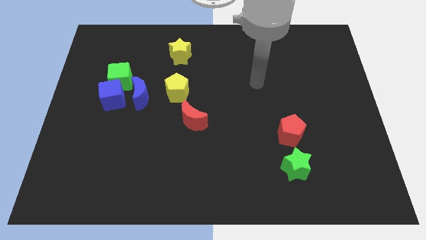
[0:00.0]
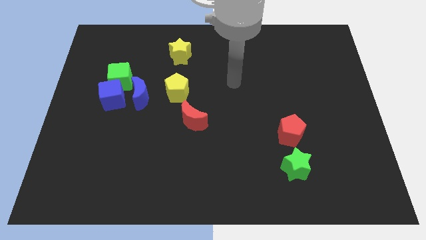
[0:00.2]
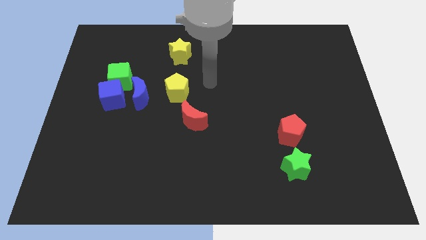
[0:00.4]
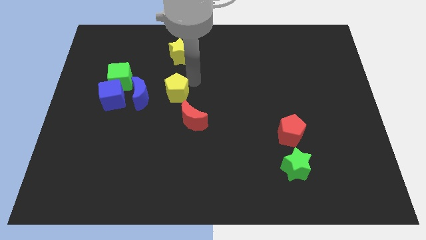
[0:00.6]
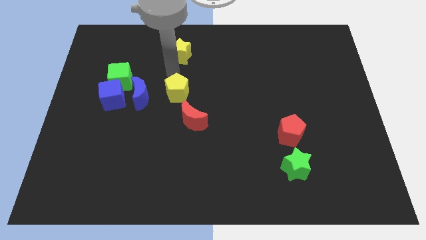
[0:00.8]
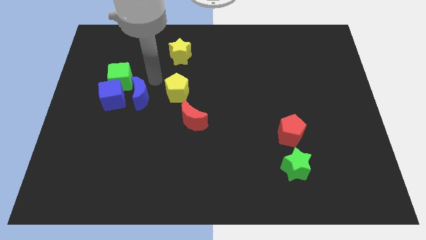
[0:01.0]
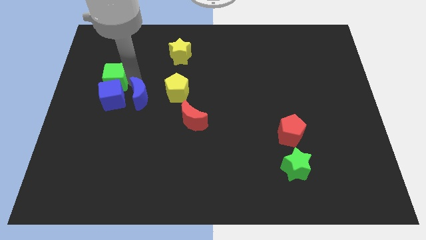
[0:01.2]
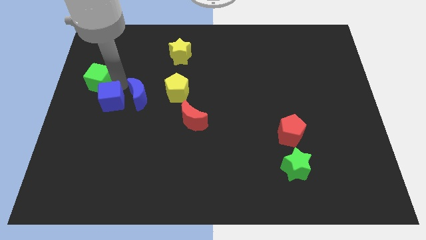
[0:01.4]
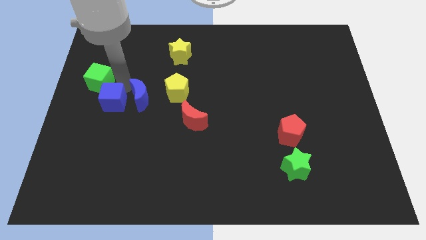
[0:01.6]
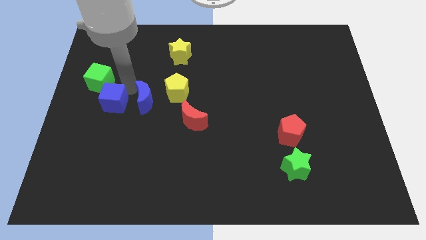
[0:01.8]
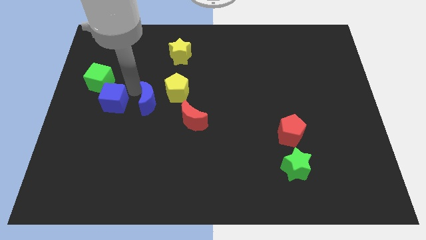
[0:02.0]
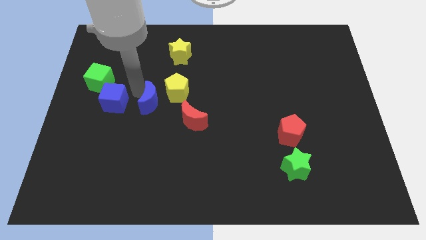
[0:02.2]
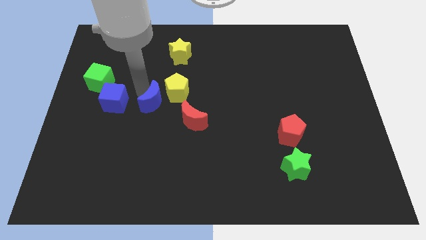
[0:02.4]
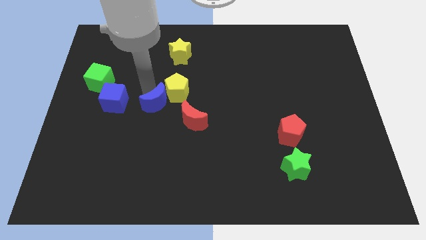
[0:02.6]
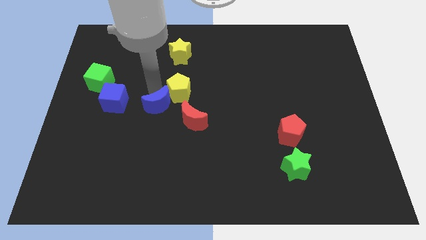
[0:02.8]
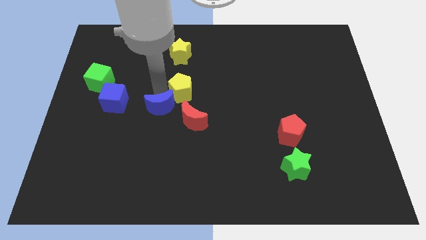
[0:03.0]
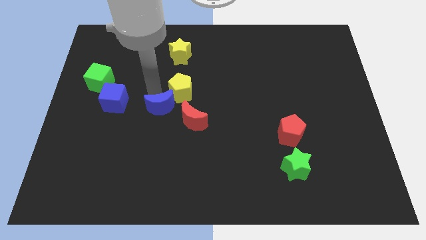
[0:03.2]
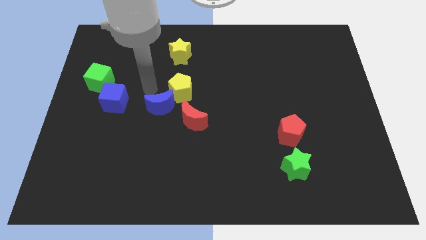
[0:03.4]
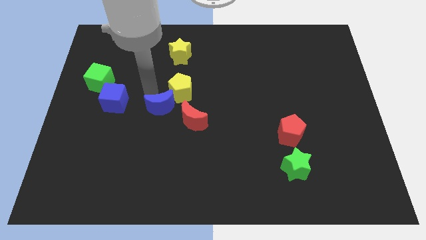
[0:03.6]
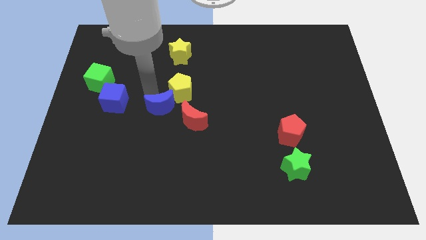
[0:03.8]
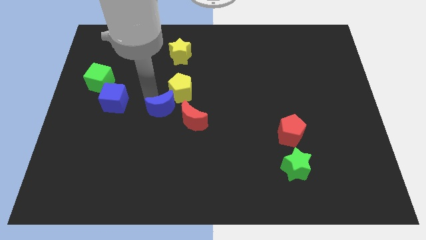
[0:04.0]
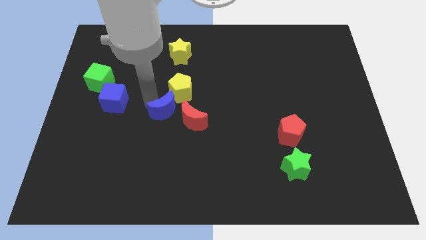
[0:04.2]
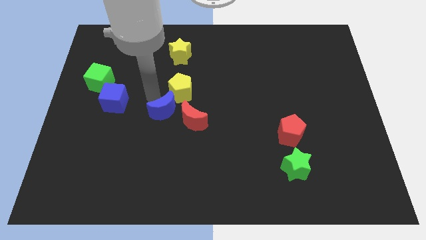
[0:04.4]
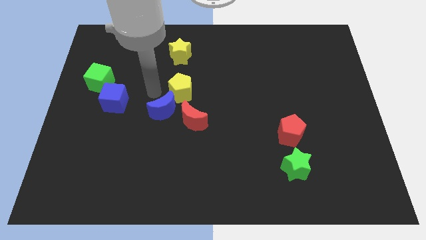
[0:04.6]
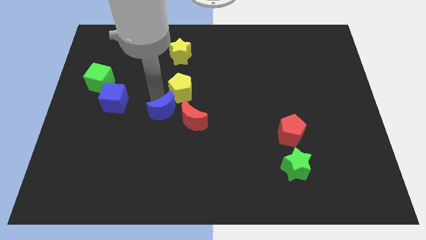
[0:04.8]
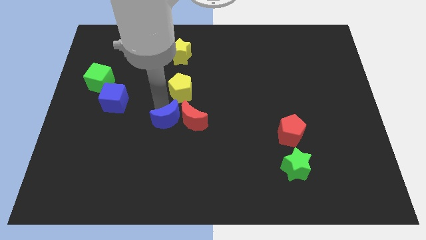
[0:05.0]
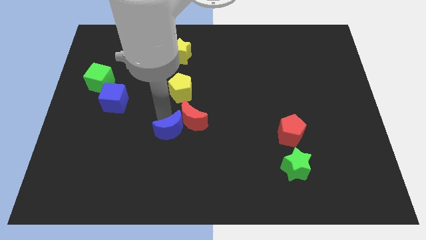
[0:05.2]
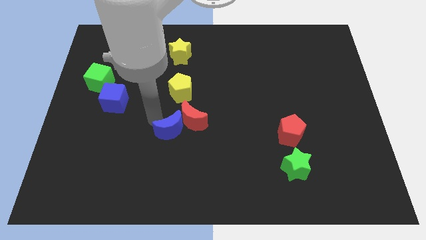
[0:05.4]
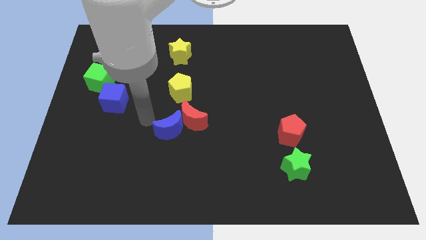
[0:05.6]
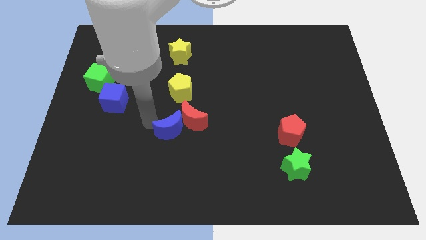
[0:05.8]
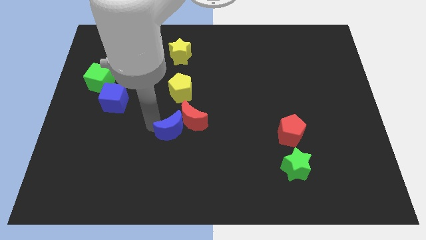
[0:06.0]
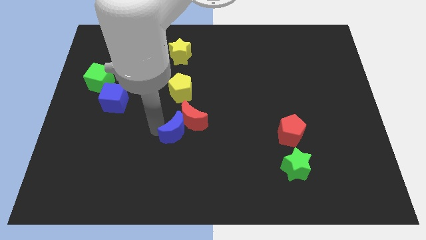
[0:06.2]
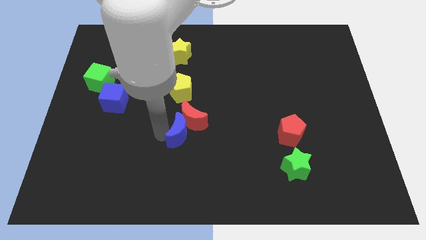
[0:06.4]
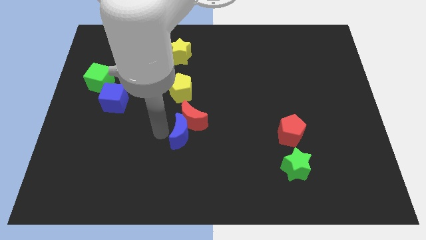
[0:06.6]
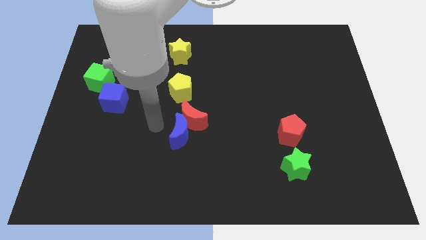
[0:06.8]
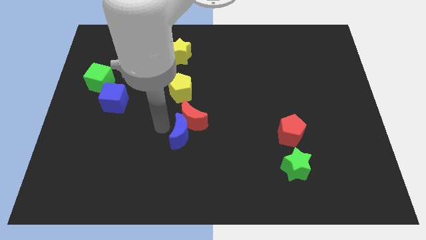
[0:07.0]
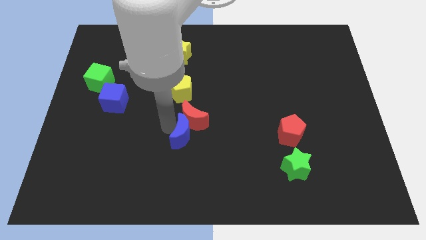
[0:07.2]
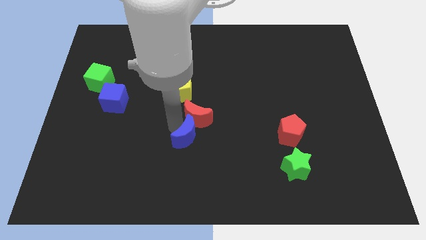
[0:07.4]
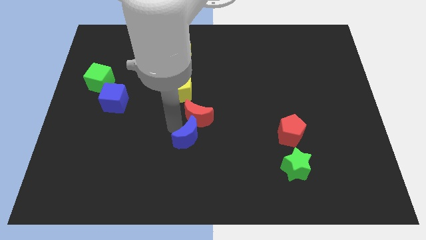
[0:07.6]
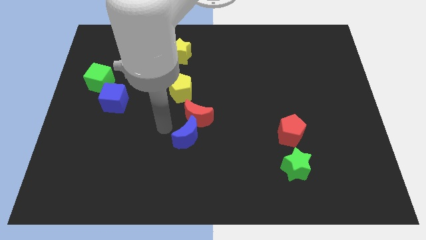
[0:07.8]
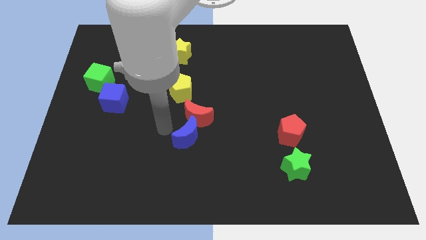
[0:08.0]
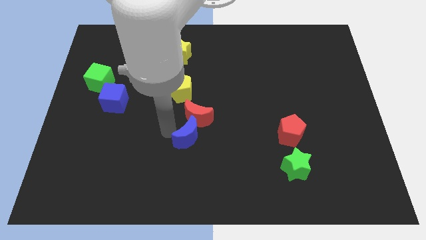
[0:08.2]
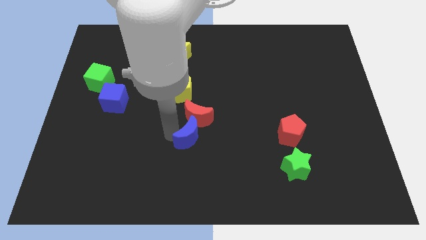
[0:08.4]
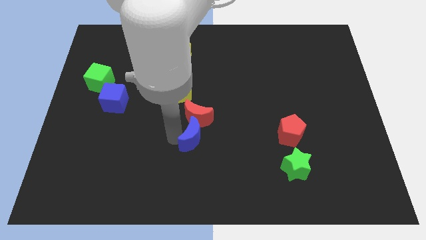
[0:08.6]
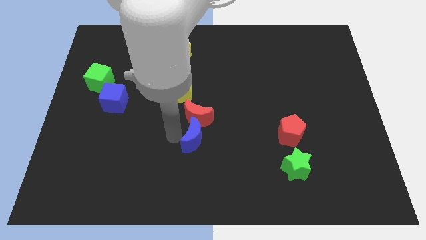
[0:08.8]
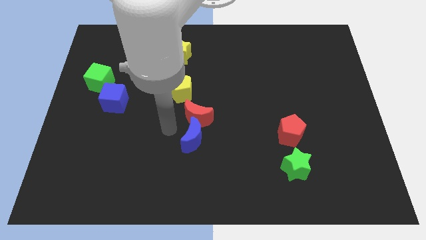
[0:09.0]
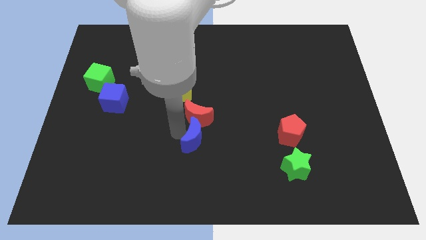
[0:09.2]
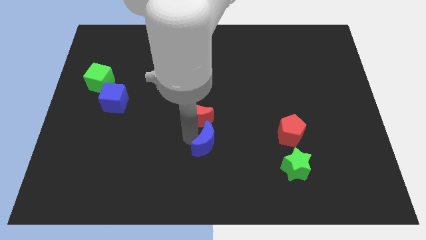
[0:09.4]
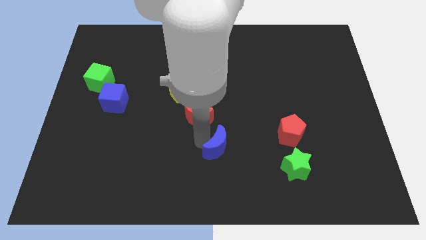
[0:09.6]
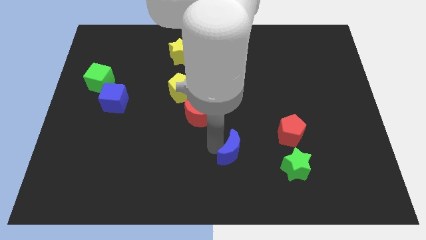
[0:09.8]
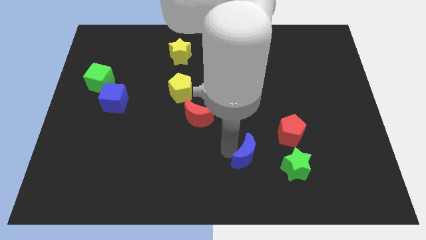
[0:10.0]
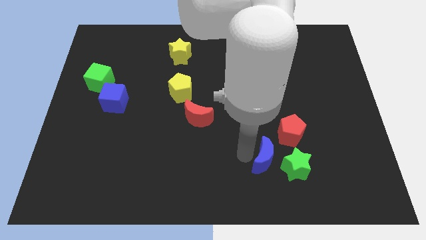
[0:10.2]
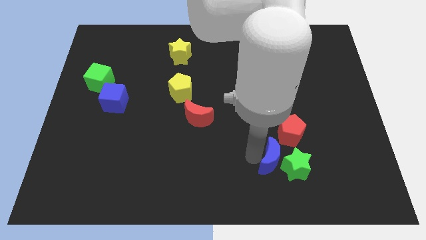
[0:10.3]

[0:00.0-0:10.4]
move the blue moon to the green star

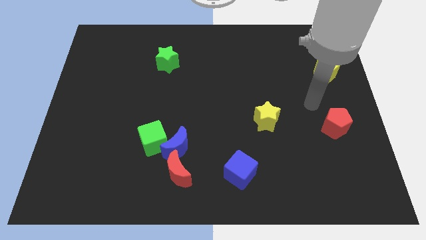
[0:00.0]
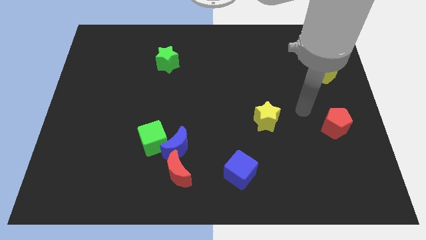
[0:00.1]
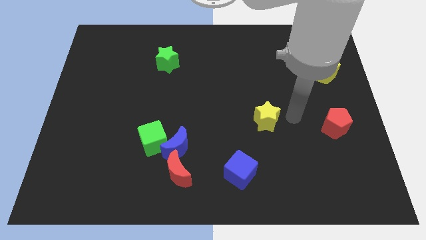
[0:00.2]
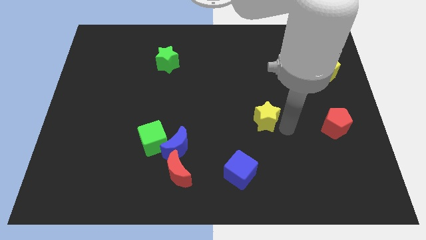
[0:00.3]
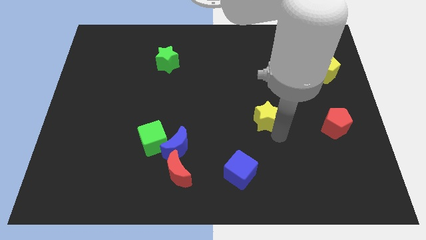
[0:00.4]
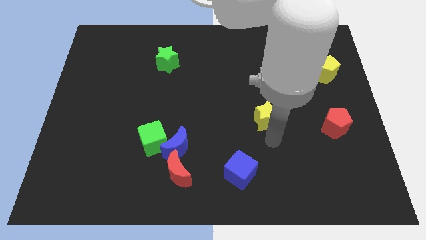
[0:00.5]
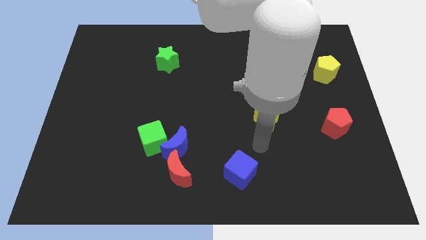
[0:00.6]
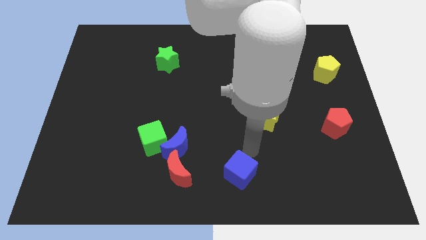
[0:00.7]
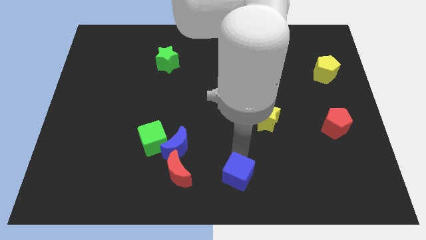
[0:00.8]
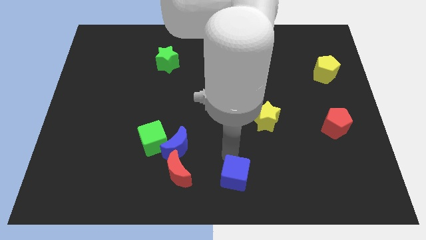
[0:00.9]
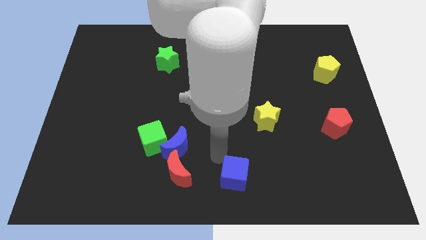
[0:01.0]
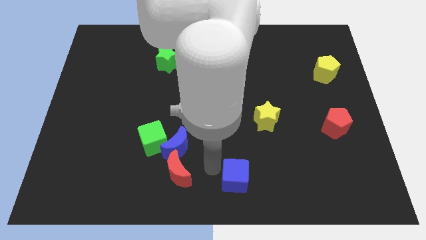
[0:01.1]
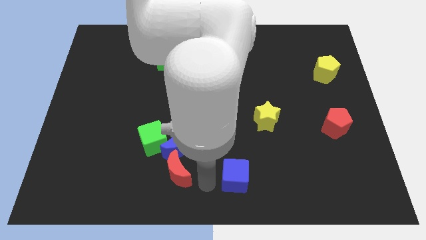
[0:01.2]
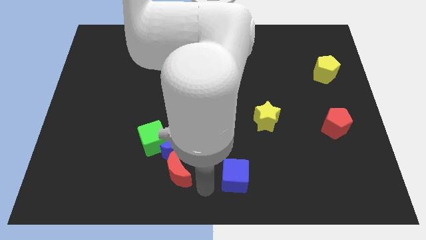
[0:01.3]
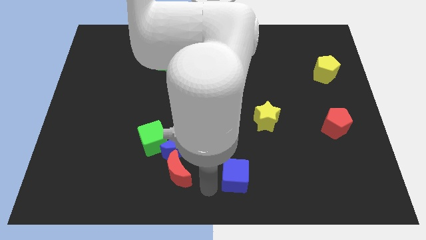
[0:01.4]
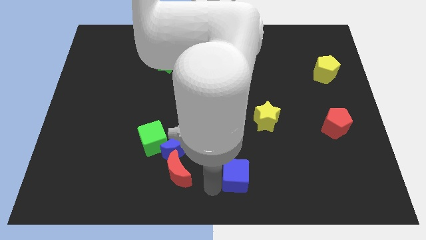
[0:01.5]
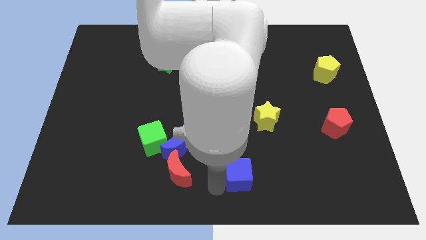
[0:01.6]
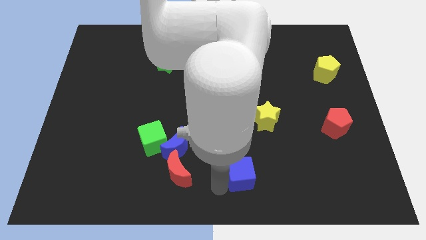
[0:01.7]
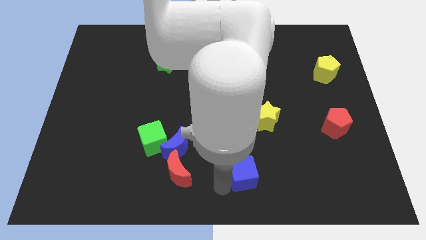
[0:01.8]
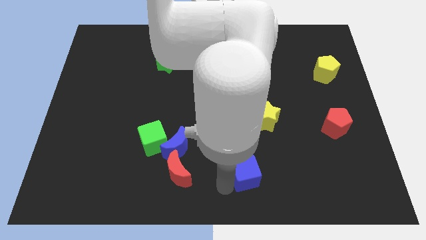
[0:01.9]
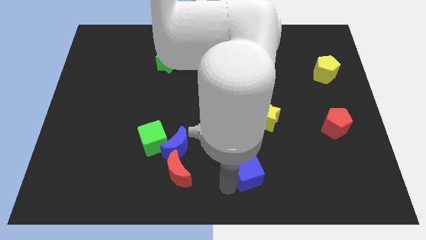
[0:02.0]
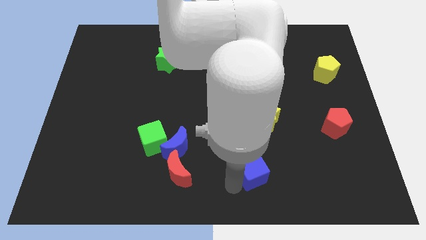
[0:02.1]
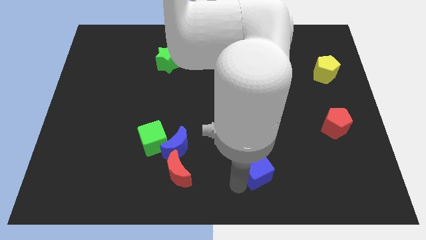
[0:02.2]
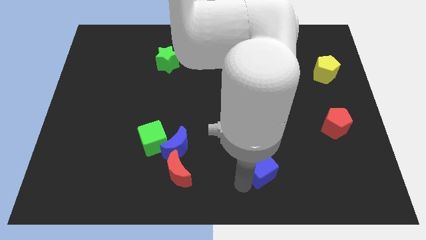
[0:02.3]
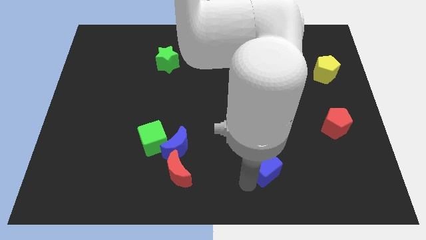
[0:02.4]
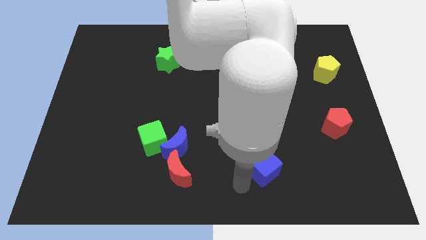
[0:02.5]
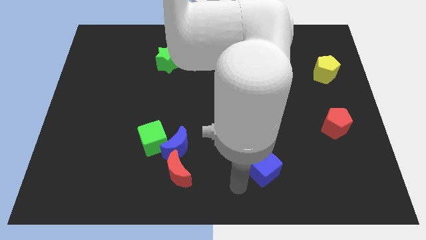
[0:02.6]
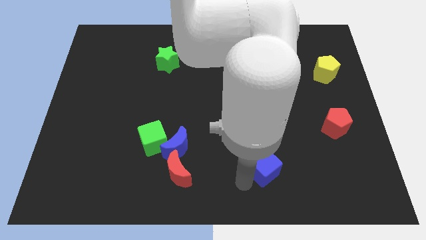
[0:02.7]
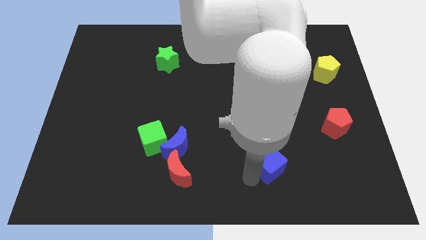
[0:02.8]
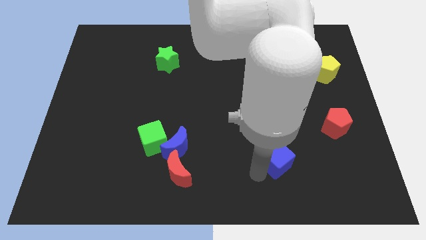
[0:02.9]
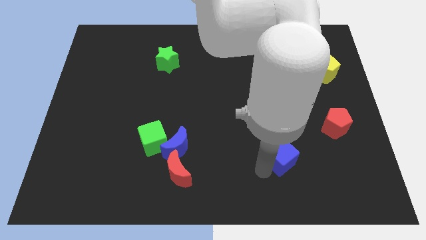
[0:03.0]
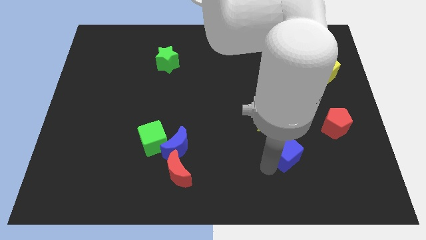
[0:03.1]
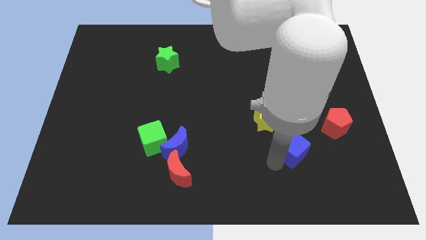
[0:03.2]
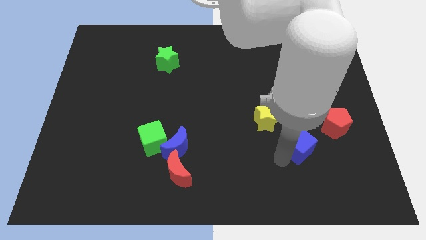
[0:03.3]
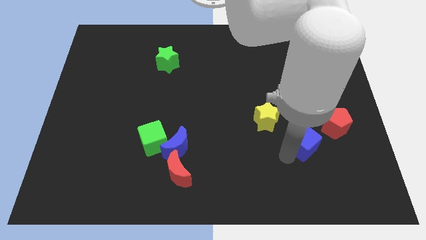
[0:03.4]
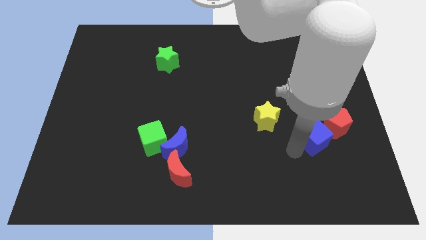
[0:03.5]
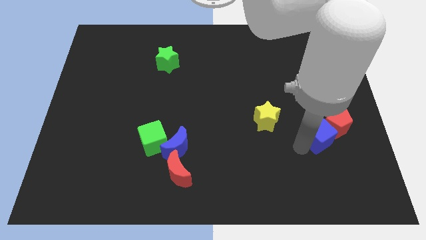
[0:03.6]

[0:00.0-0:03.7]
slide the blue cube close to the red pentagon
